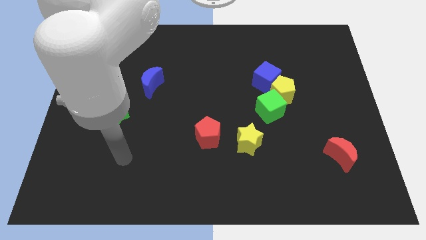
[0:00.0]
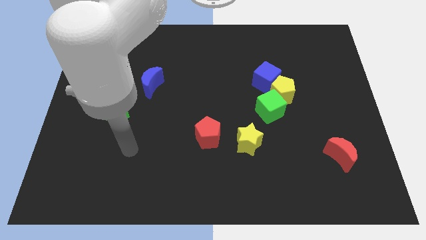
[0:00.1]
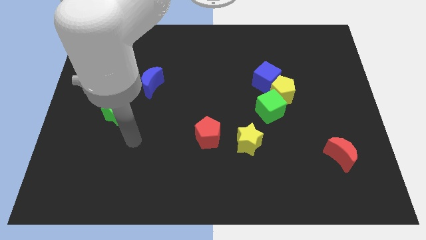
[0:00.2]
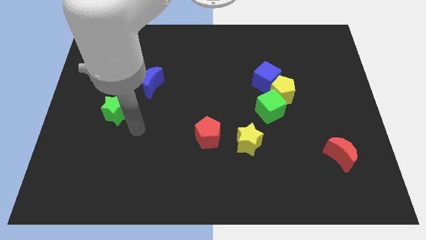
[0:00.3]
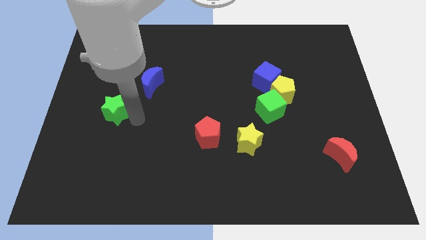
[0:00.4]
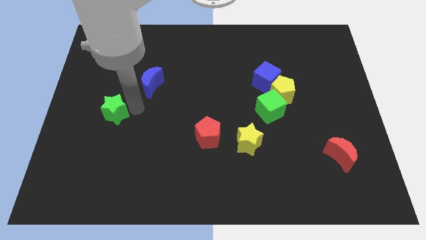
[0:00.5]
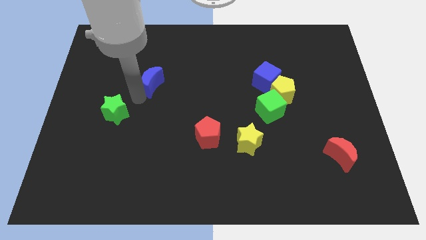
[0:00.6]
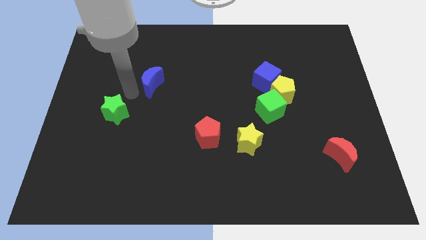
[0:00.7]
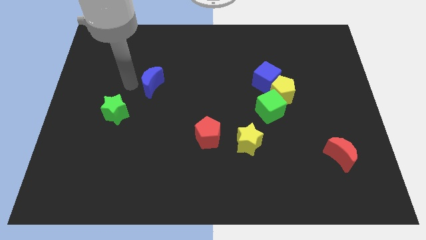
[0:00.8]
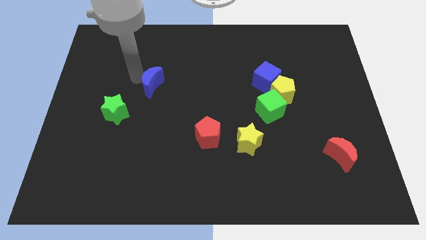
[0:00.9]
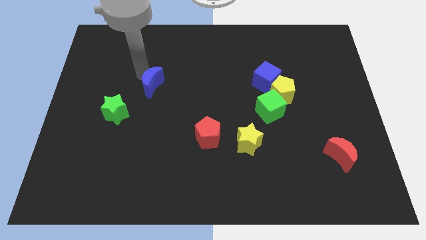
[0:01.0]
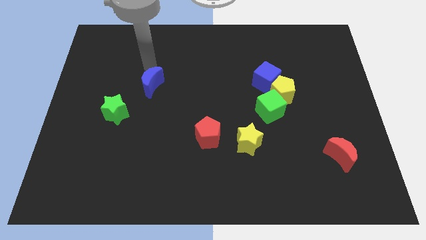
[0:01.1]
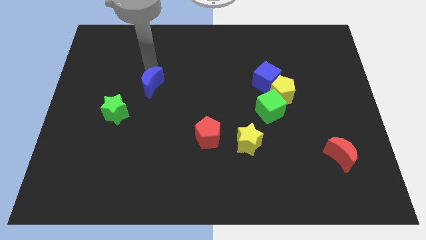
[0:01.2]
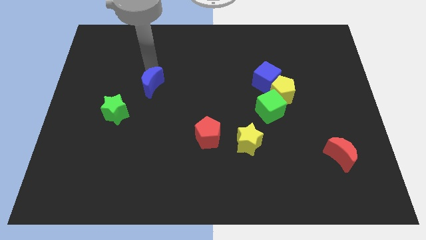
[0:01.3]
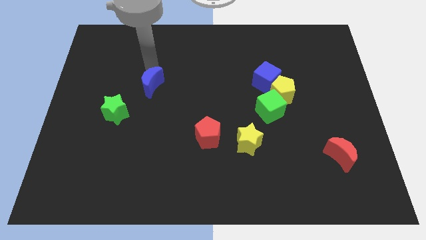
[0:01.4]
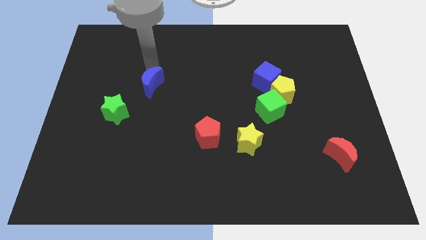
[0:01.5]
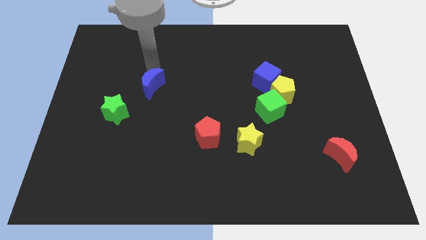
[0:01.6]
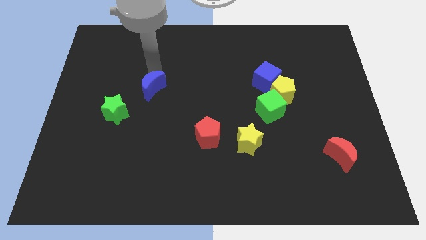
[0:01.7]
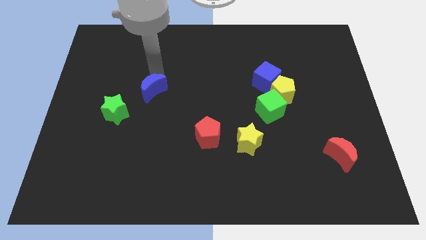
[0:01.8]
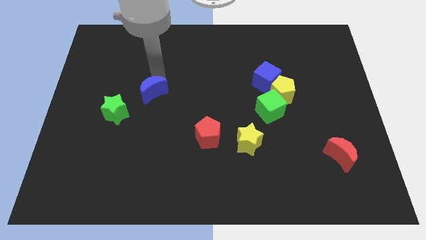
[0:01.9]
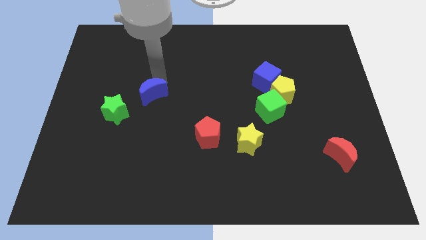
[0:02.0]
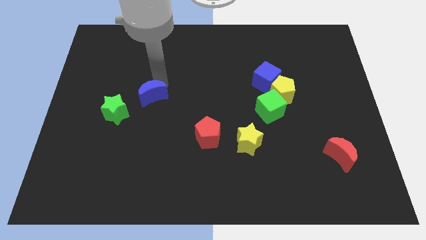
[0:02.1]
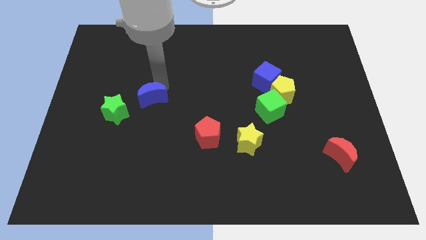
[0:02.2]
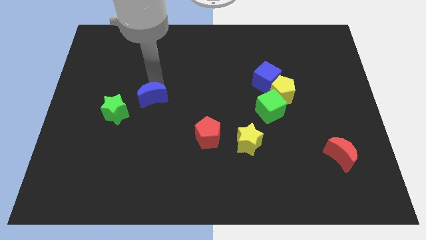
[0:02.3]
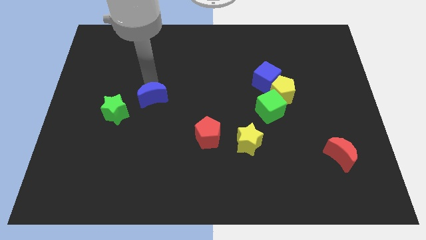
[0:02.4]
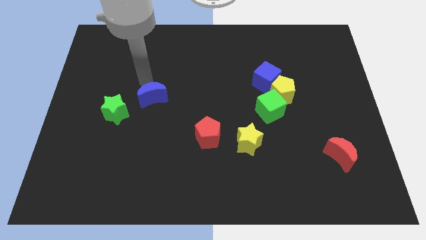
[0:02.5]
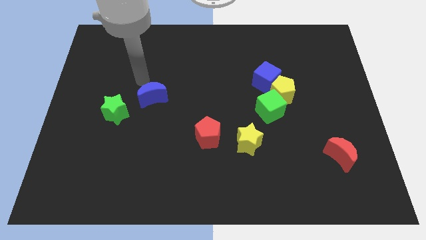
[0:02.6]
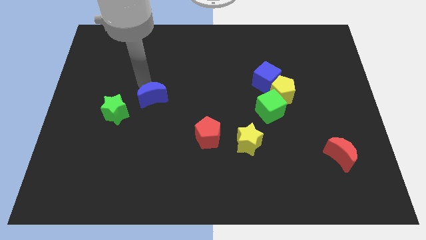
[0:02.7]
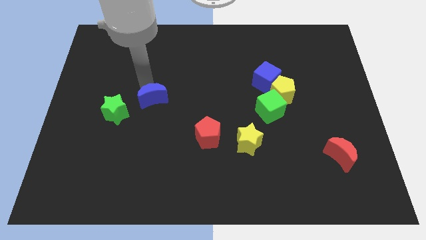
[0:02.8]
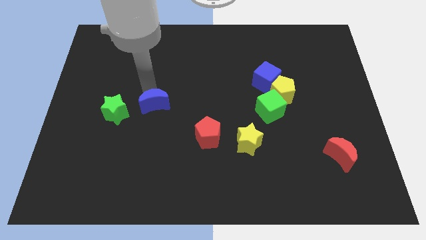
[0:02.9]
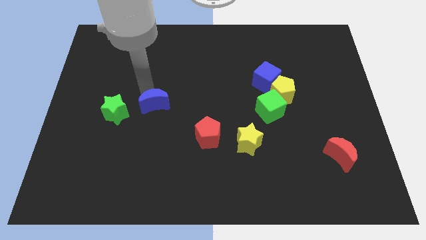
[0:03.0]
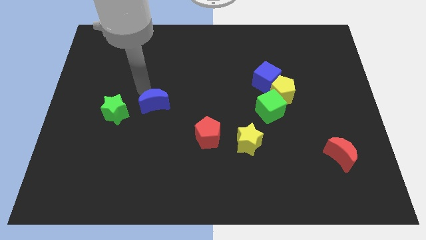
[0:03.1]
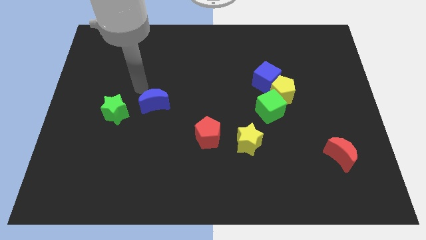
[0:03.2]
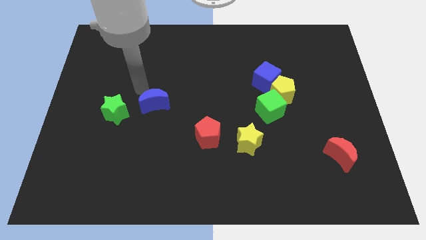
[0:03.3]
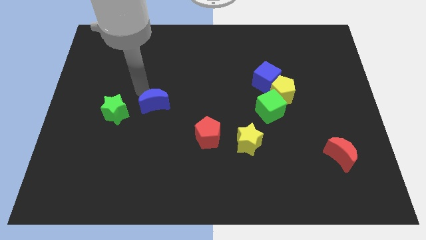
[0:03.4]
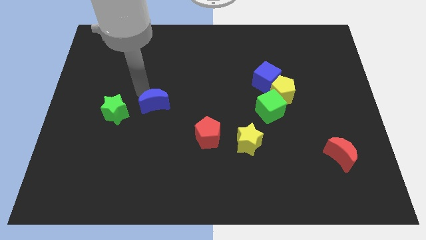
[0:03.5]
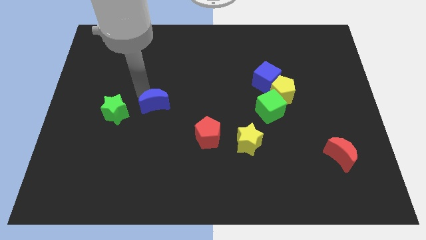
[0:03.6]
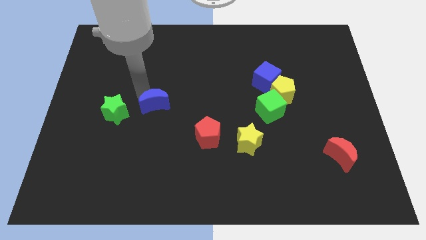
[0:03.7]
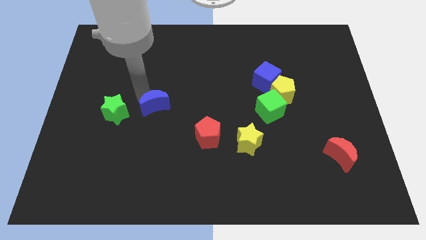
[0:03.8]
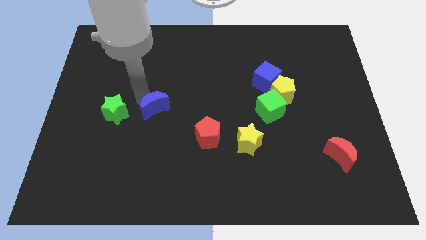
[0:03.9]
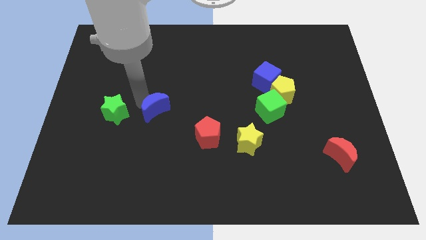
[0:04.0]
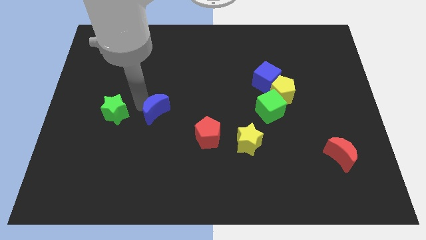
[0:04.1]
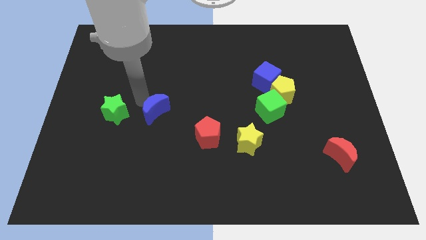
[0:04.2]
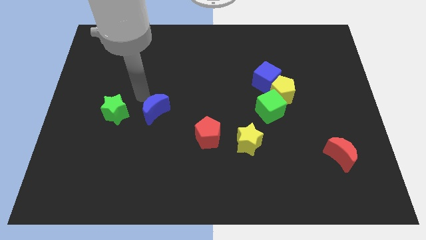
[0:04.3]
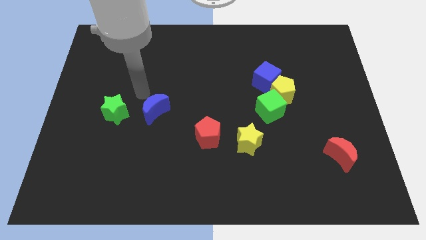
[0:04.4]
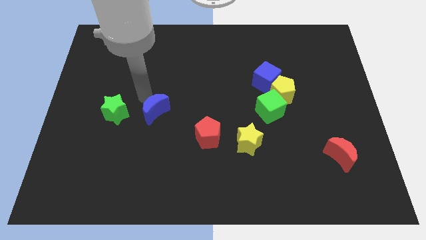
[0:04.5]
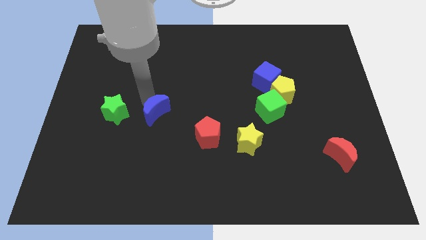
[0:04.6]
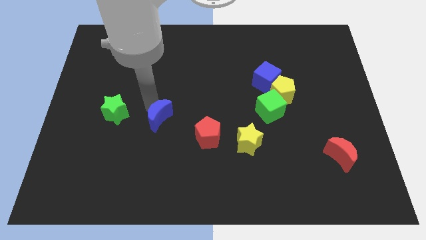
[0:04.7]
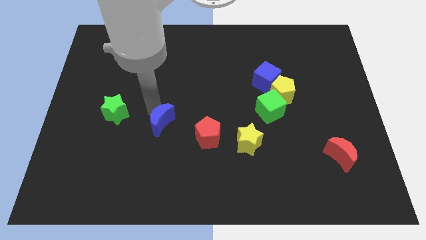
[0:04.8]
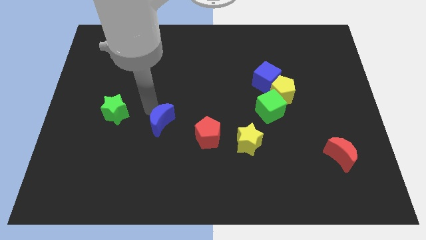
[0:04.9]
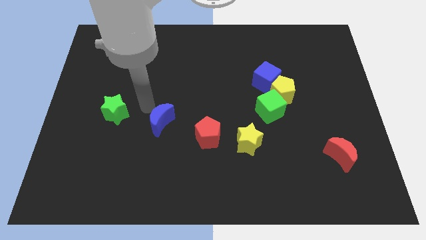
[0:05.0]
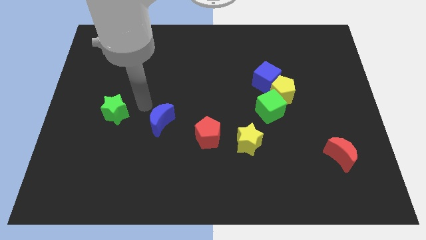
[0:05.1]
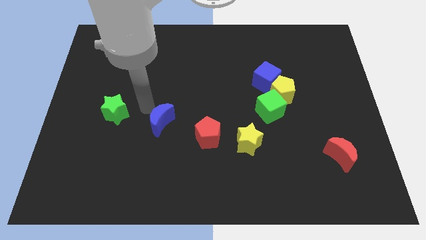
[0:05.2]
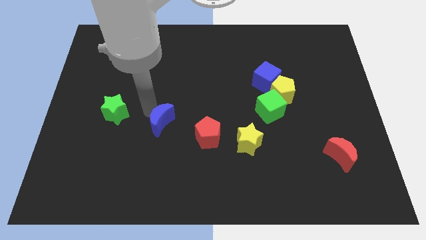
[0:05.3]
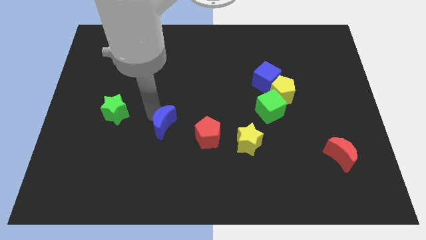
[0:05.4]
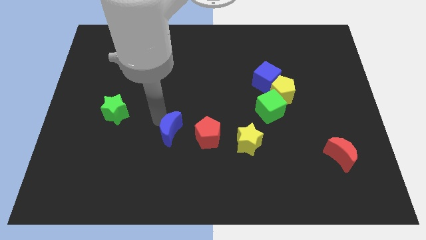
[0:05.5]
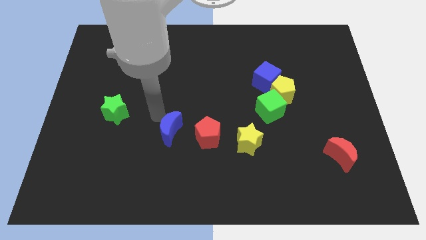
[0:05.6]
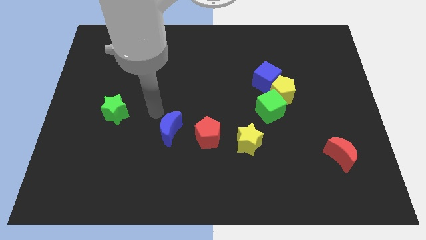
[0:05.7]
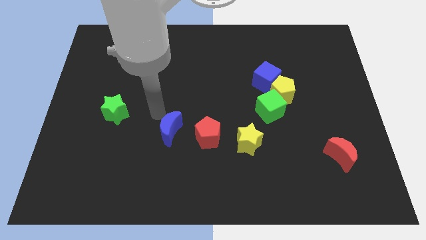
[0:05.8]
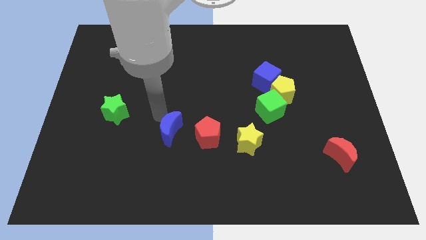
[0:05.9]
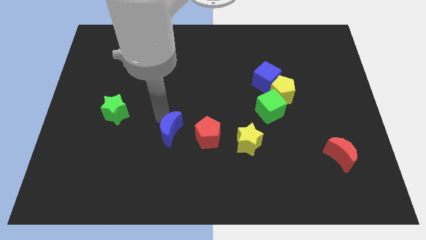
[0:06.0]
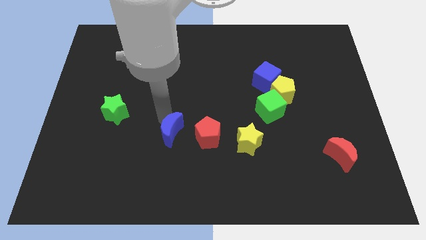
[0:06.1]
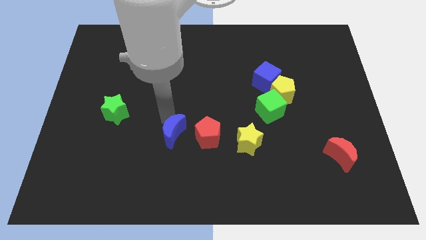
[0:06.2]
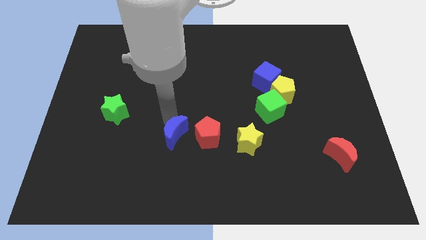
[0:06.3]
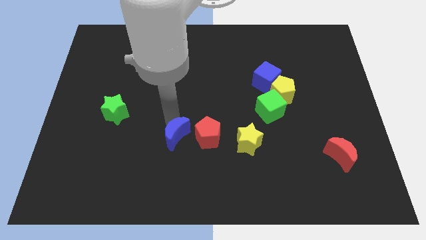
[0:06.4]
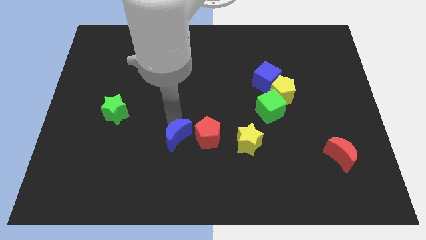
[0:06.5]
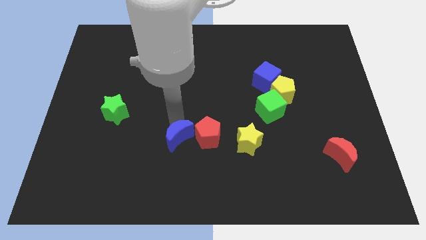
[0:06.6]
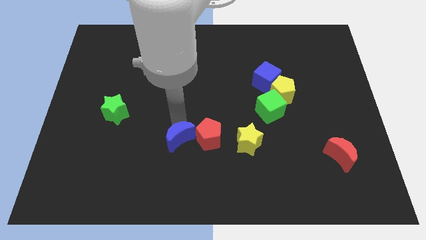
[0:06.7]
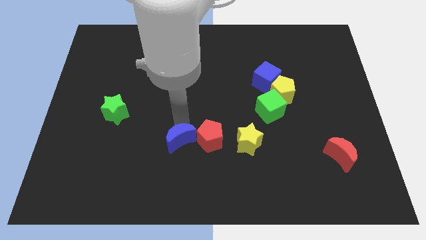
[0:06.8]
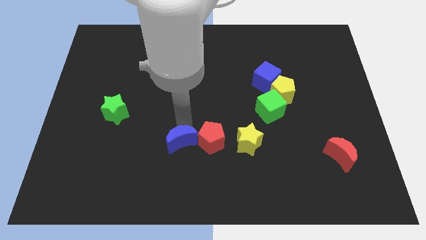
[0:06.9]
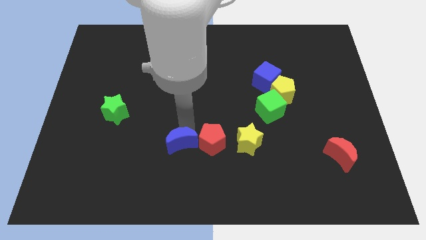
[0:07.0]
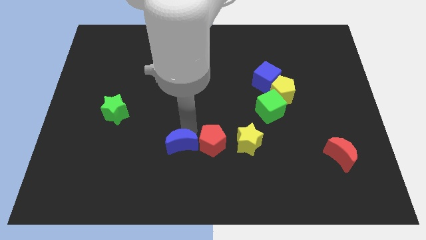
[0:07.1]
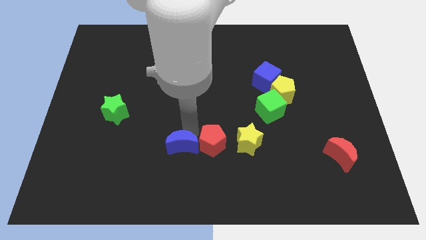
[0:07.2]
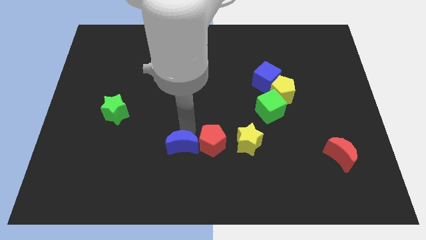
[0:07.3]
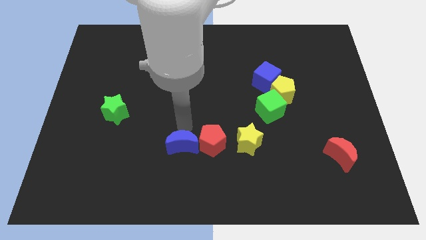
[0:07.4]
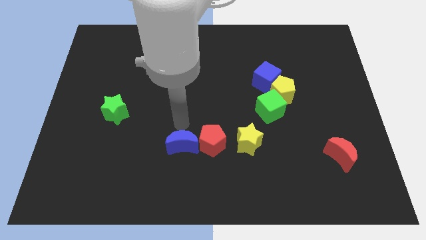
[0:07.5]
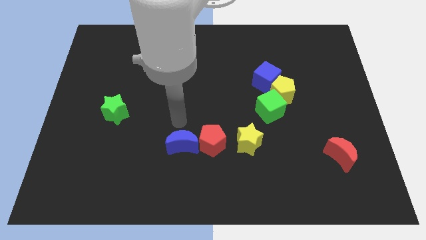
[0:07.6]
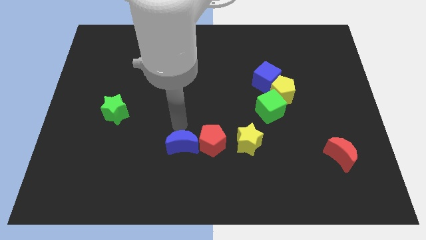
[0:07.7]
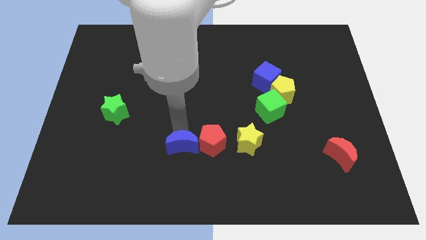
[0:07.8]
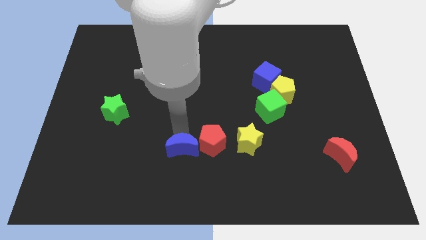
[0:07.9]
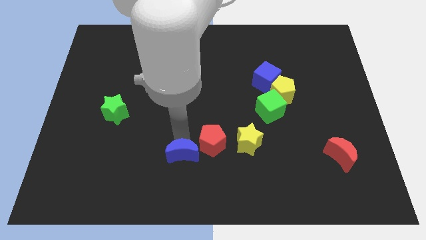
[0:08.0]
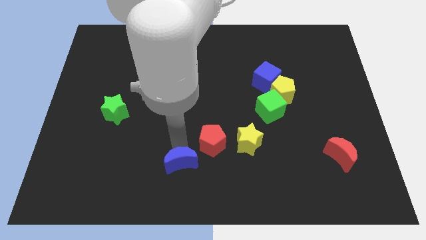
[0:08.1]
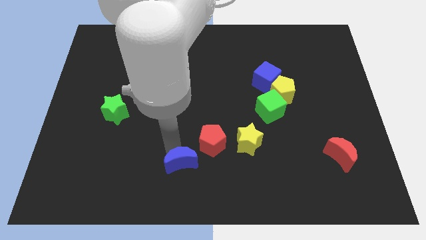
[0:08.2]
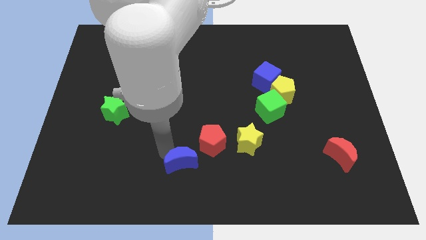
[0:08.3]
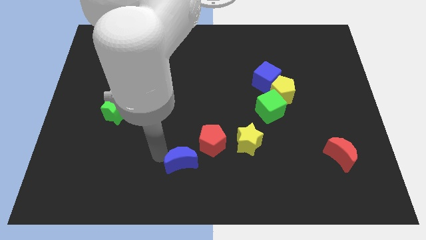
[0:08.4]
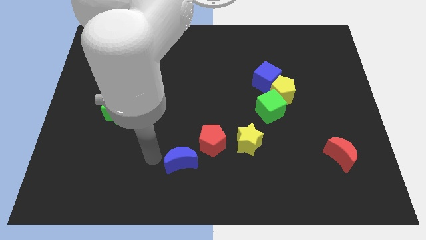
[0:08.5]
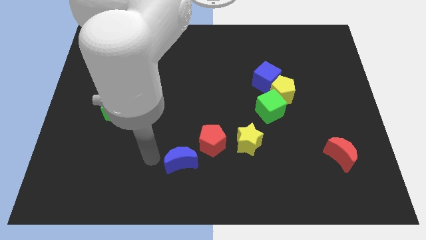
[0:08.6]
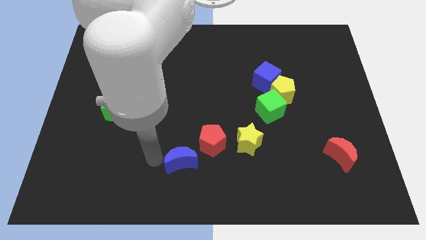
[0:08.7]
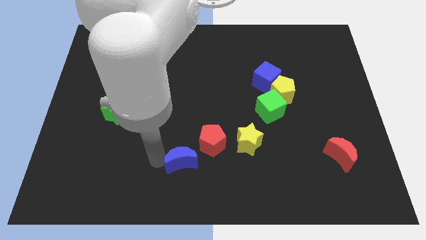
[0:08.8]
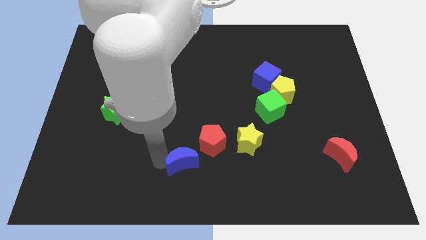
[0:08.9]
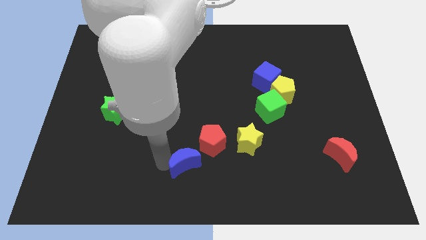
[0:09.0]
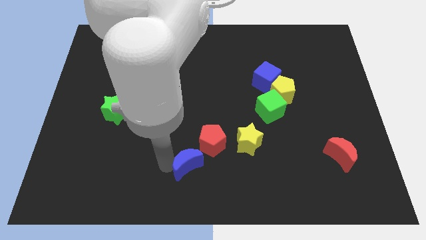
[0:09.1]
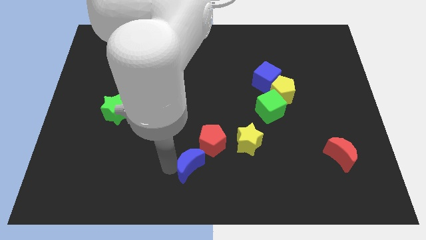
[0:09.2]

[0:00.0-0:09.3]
move the blue moon down and right diagonally
